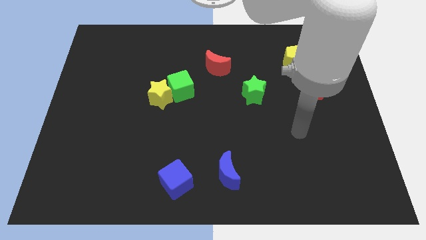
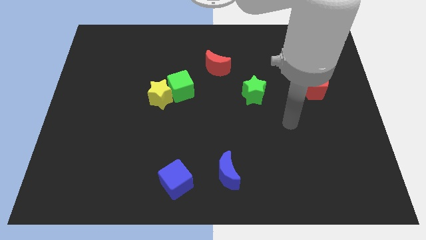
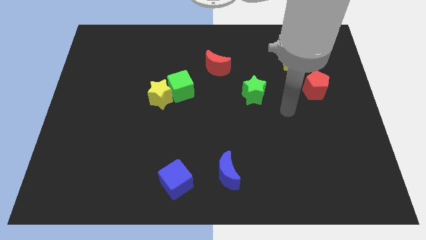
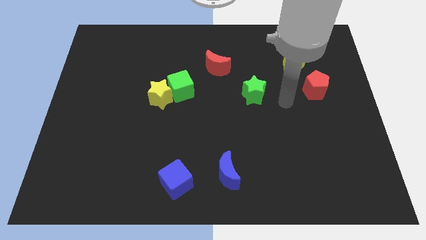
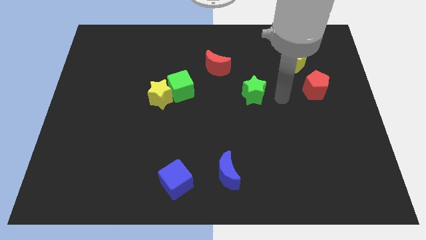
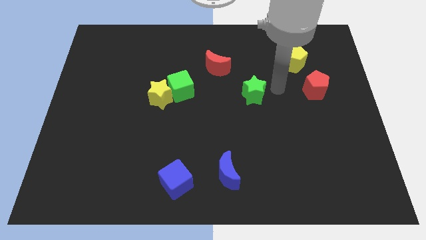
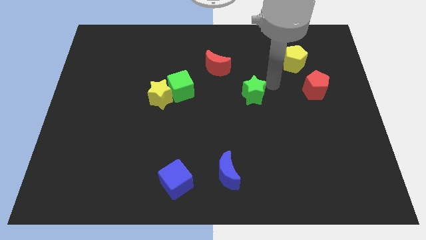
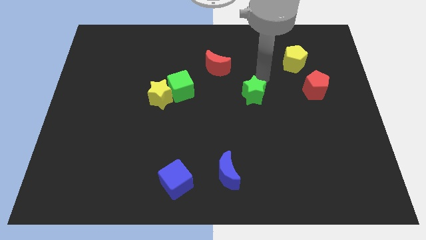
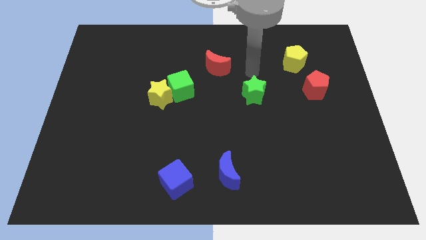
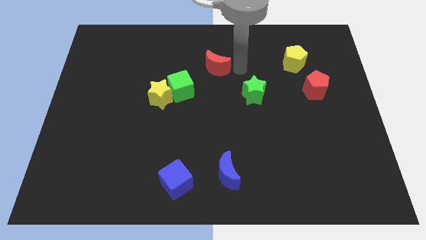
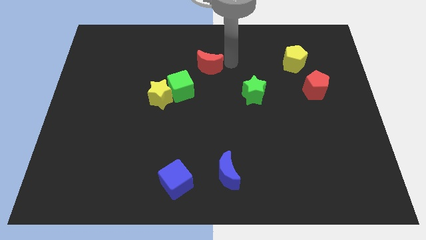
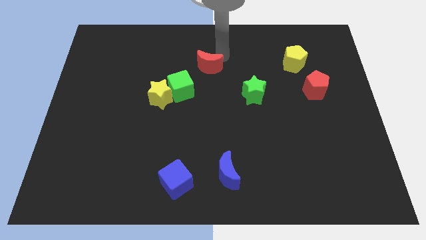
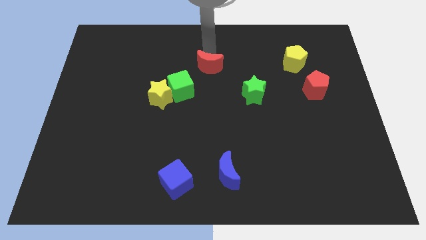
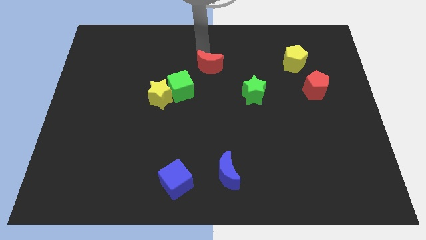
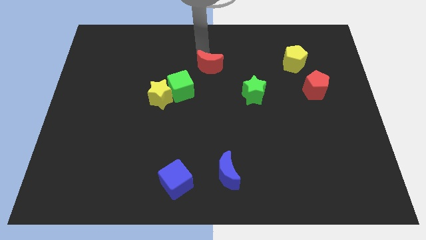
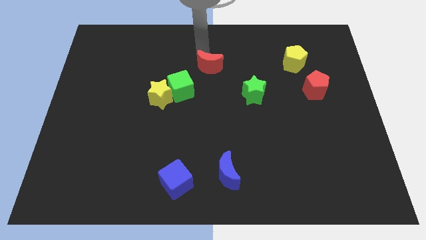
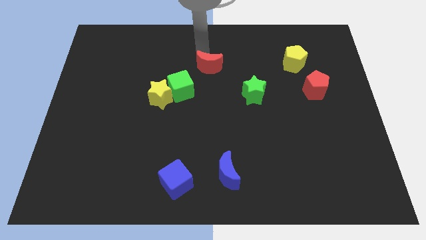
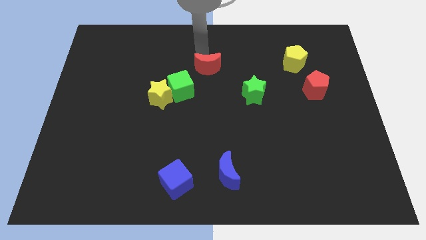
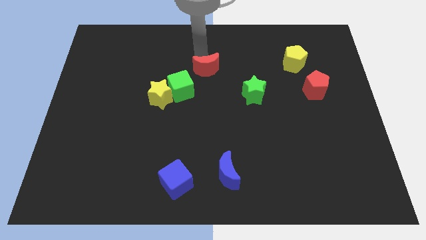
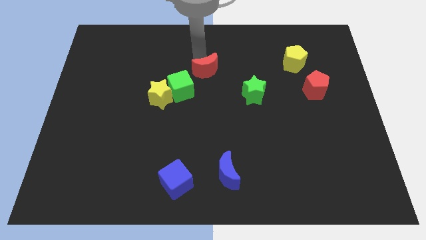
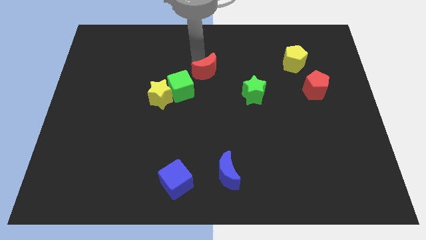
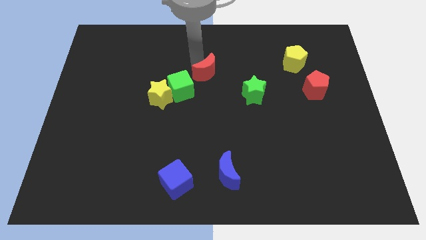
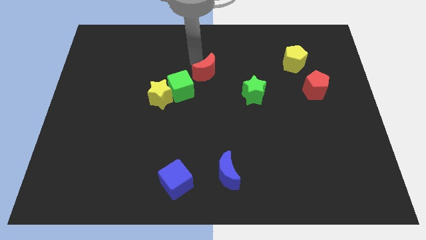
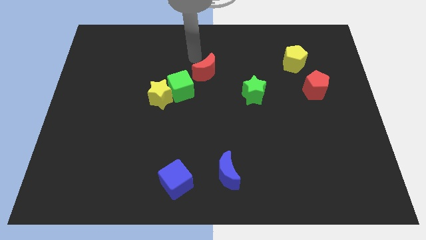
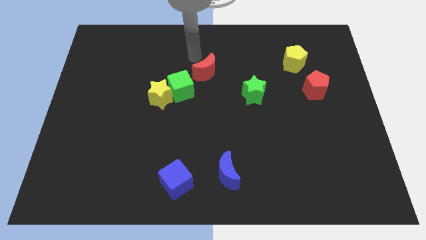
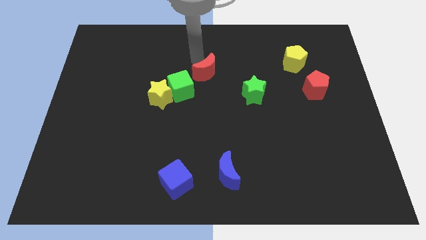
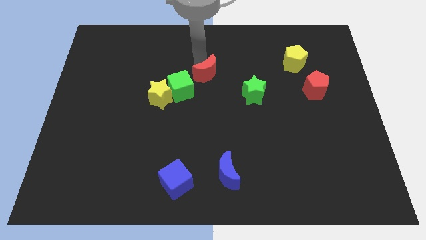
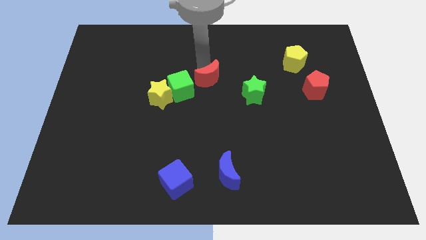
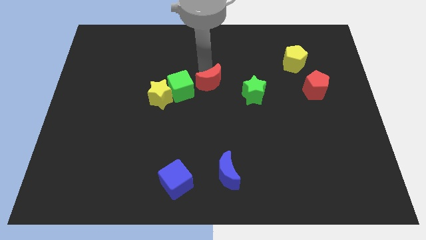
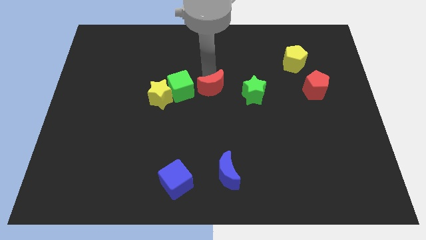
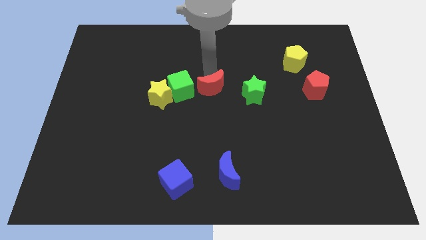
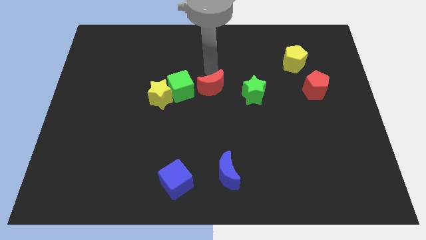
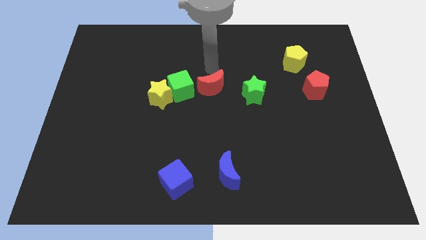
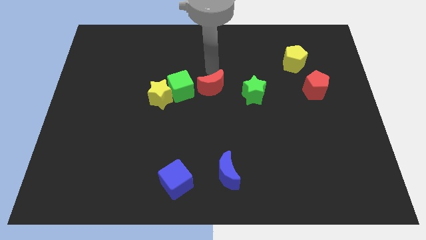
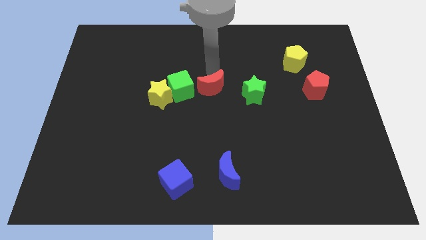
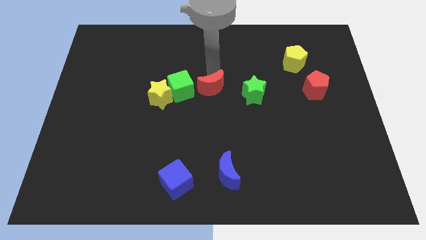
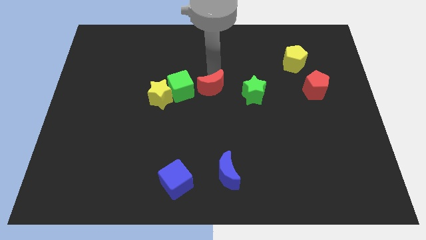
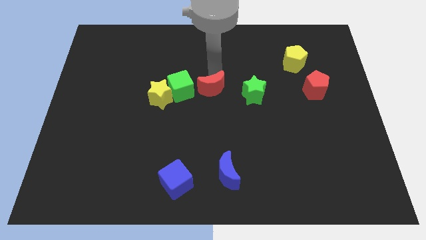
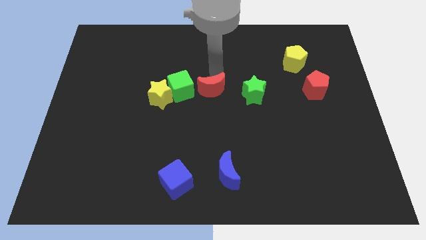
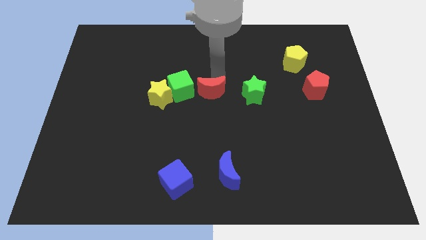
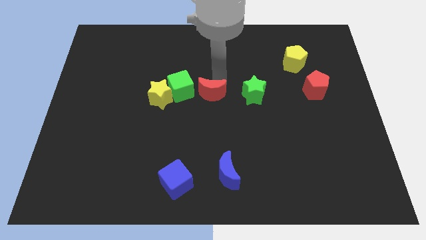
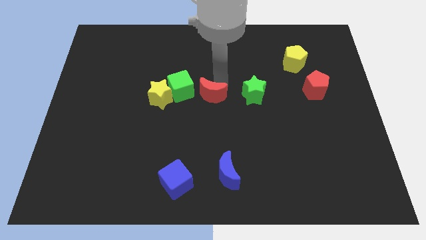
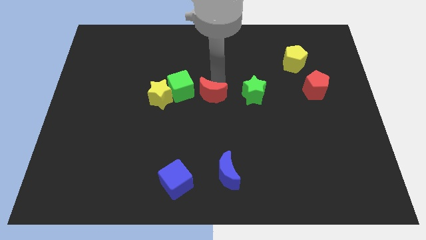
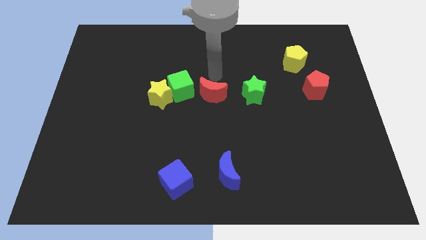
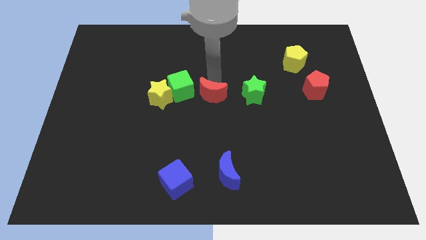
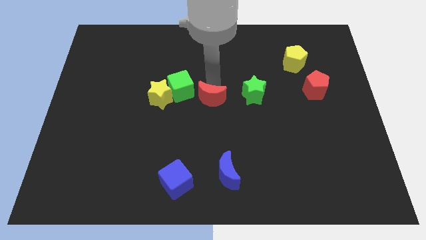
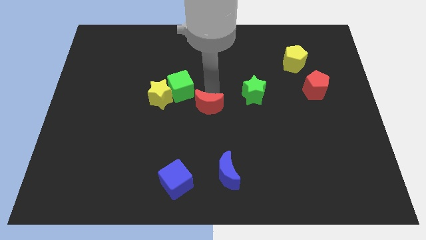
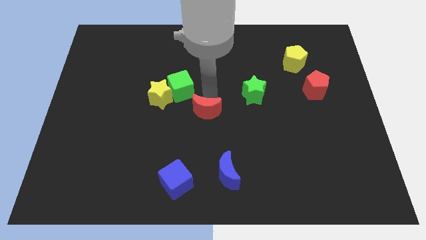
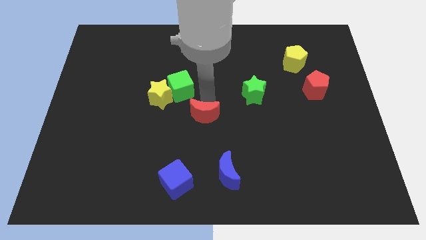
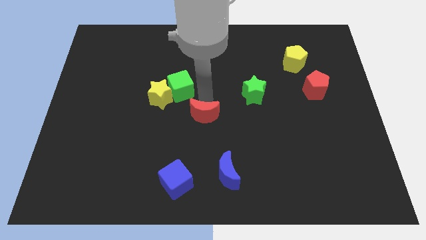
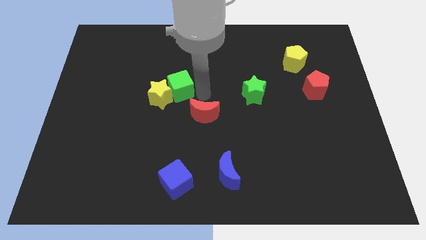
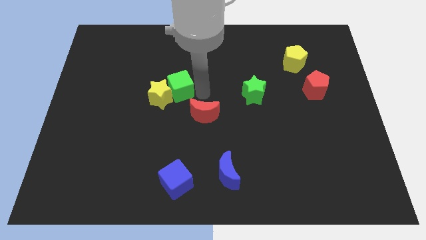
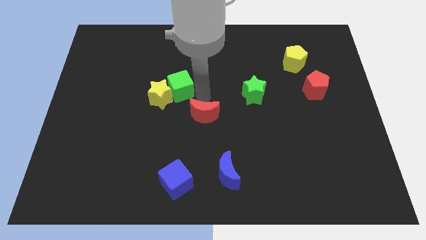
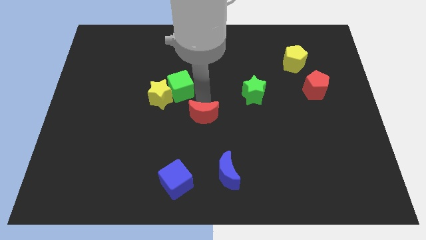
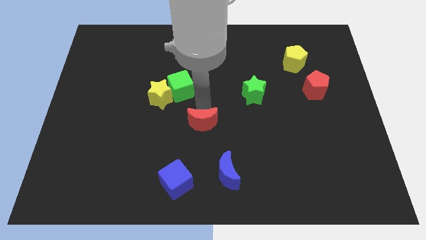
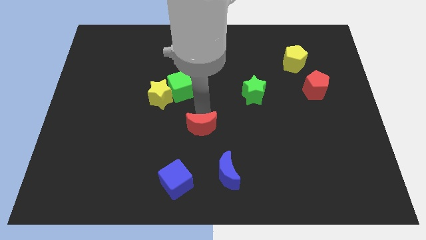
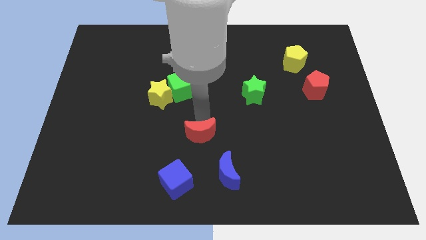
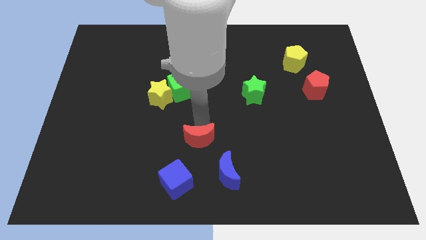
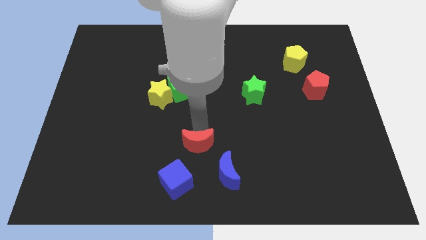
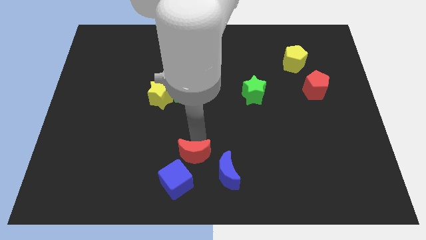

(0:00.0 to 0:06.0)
slide the red moon to the bottom side

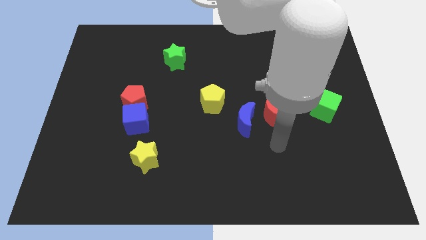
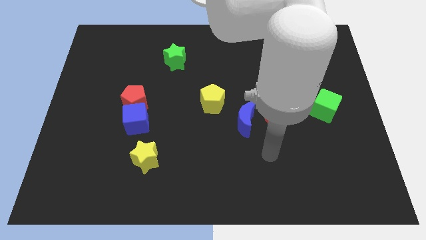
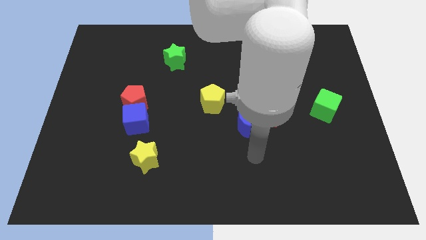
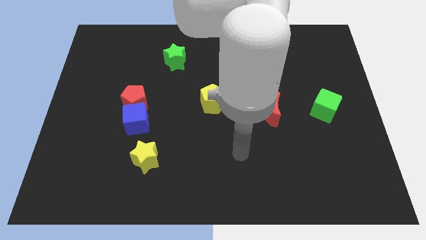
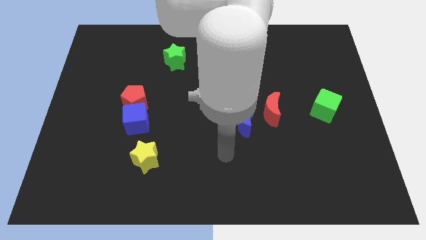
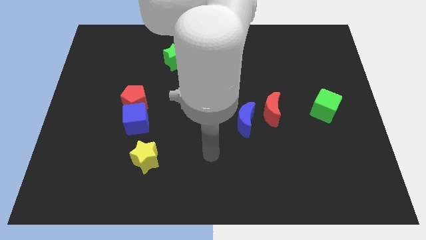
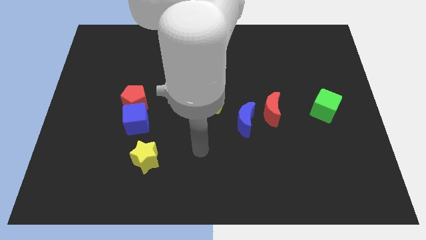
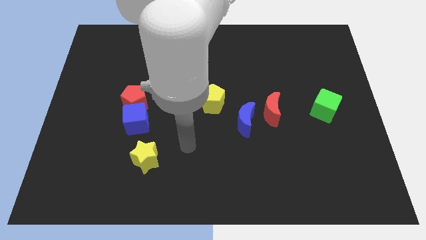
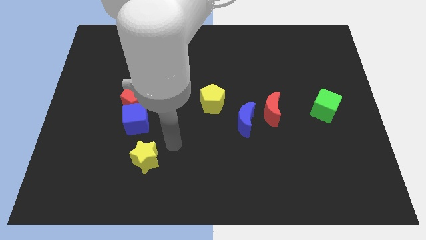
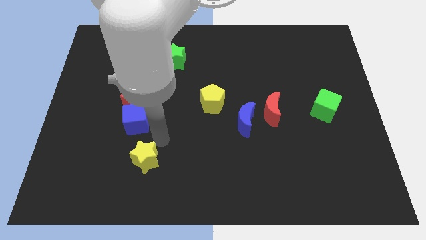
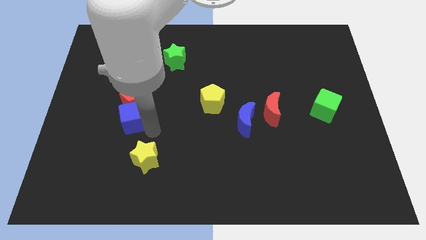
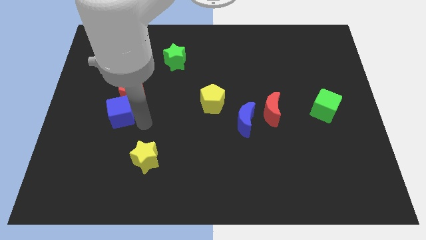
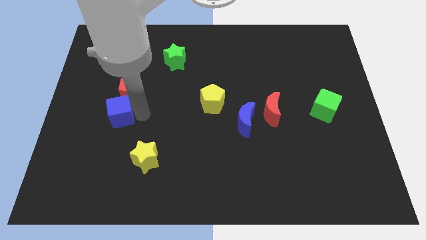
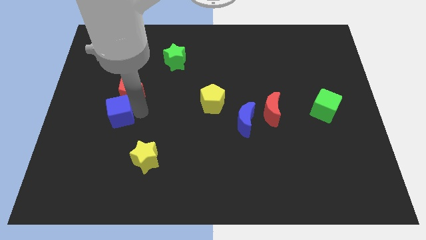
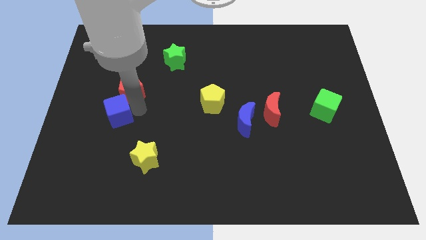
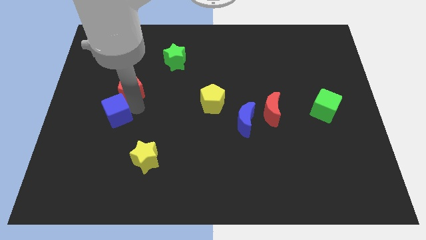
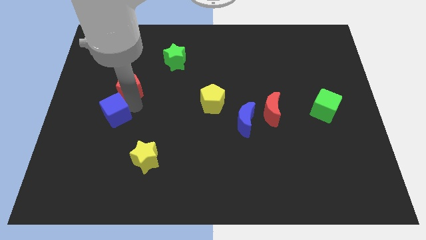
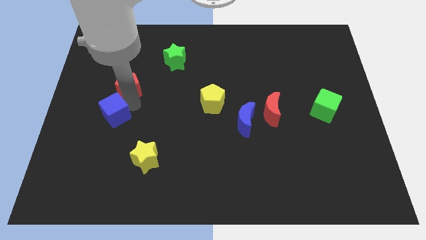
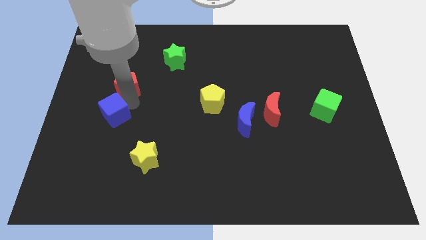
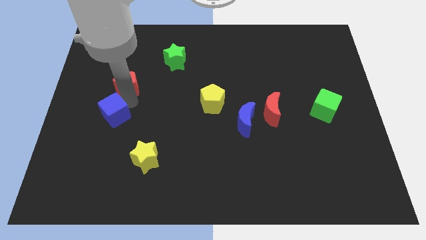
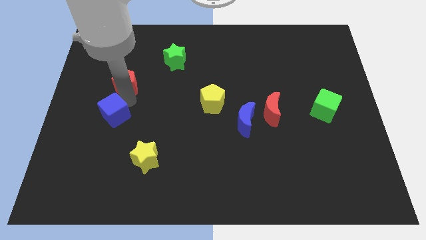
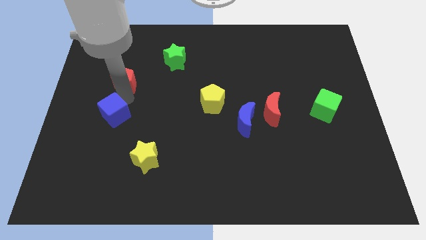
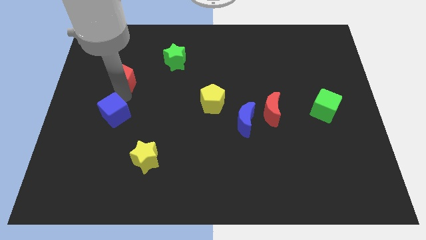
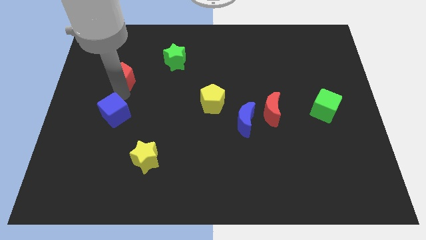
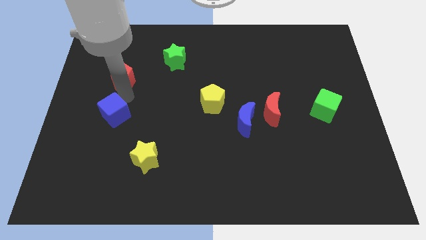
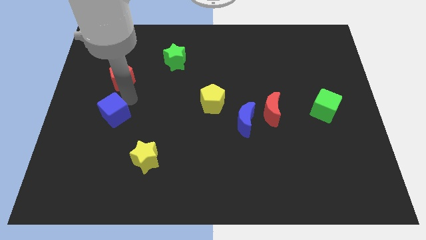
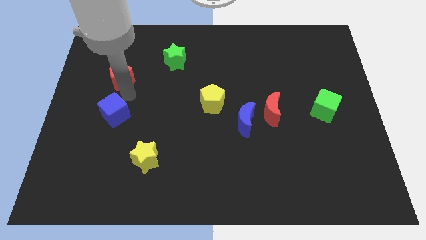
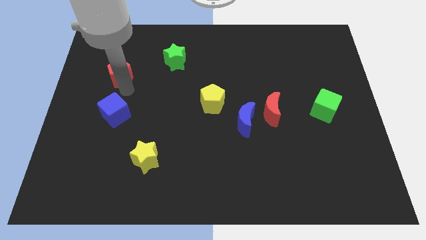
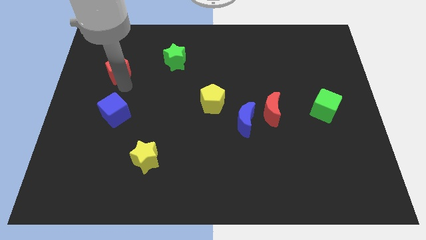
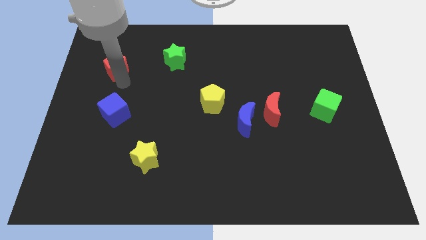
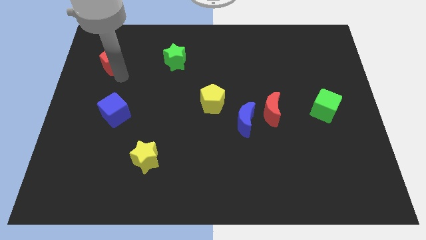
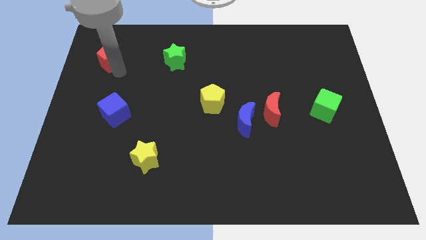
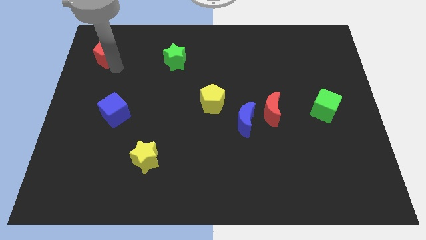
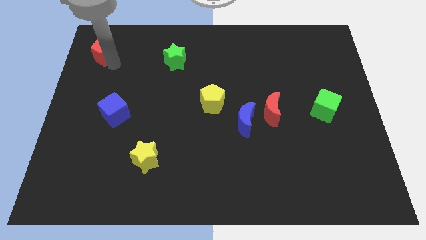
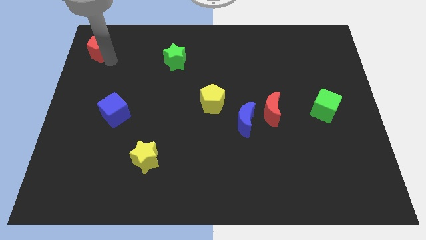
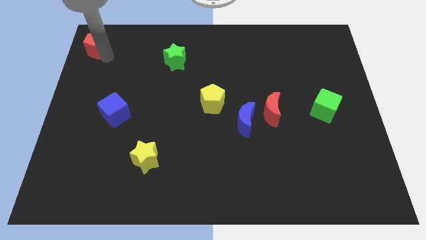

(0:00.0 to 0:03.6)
push the red pentagon to the top left
